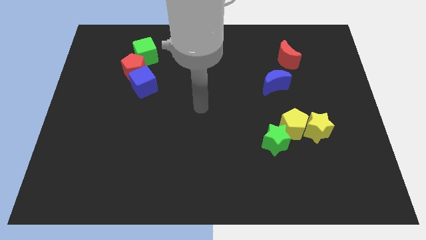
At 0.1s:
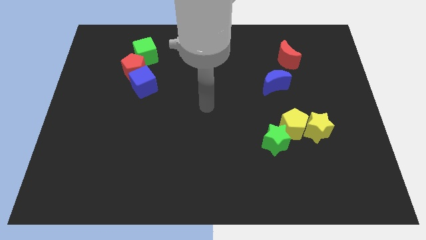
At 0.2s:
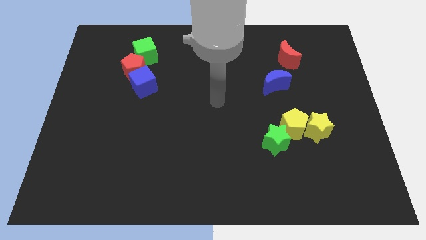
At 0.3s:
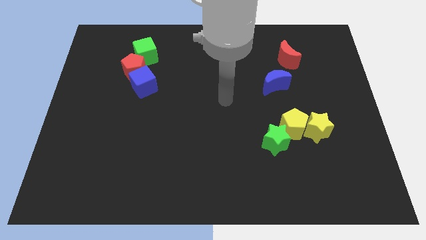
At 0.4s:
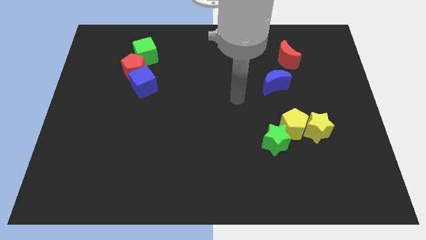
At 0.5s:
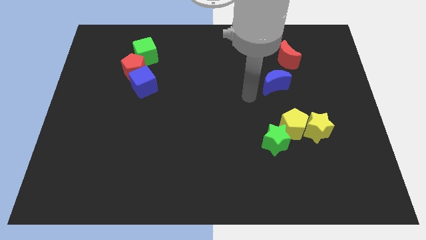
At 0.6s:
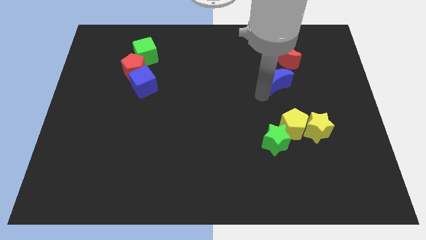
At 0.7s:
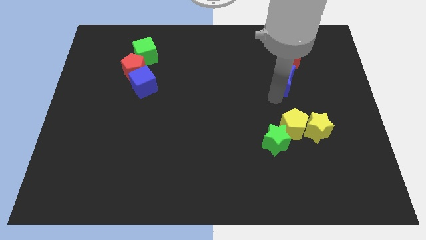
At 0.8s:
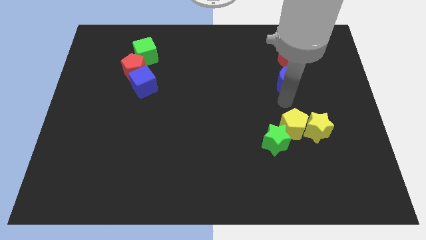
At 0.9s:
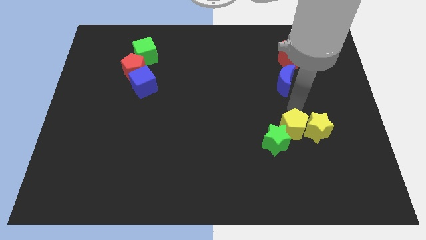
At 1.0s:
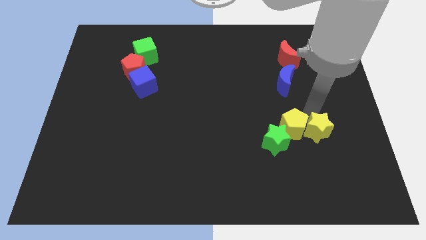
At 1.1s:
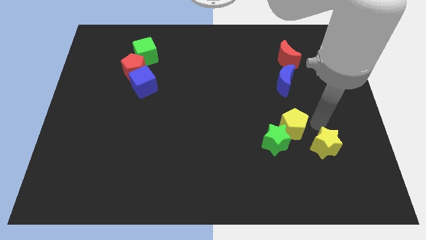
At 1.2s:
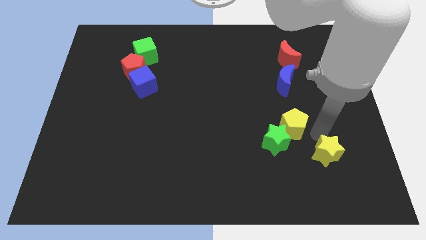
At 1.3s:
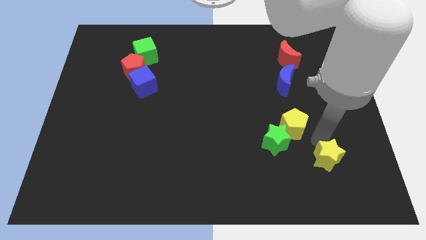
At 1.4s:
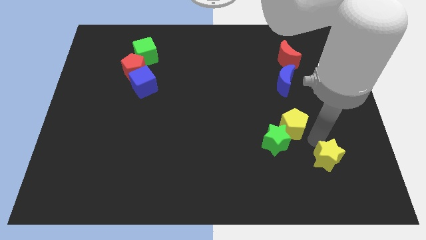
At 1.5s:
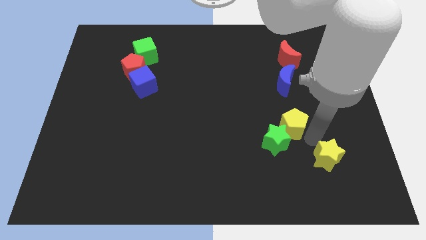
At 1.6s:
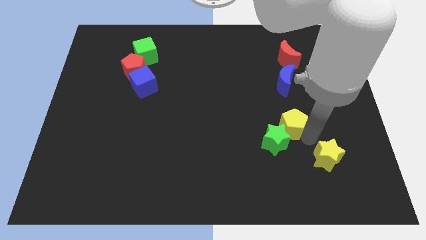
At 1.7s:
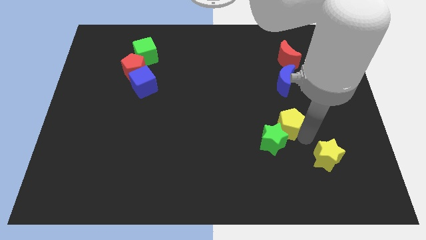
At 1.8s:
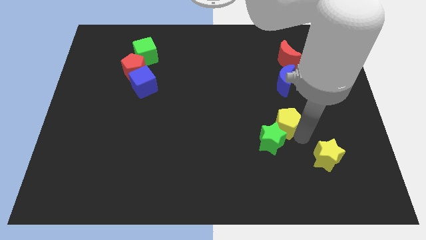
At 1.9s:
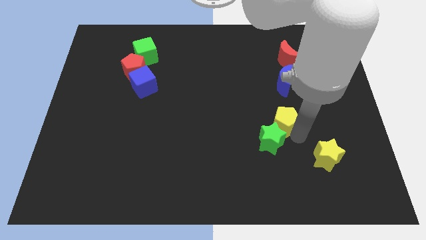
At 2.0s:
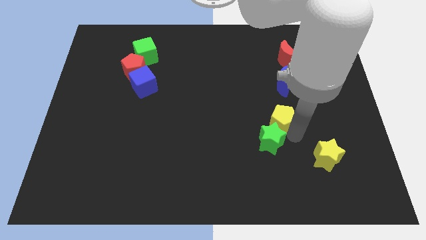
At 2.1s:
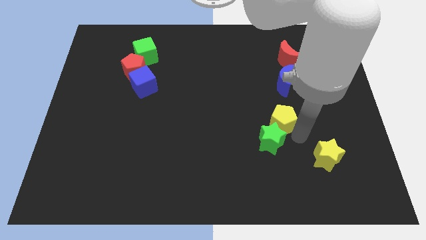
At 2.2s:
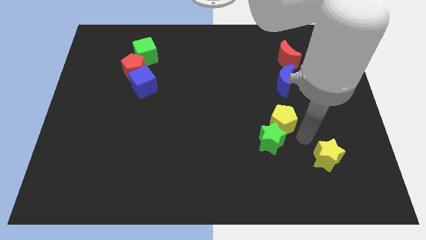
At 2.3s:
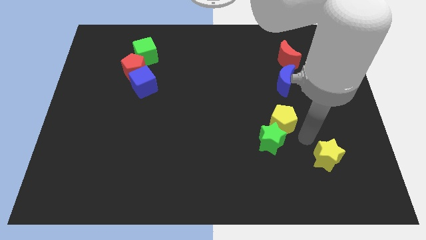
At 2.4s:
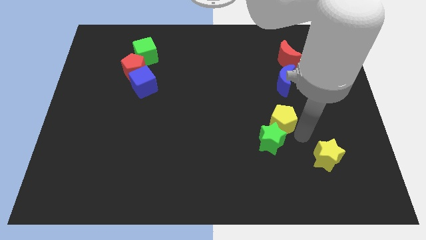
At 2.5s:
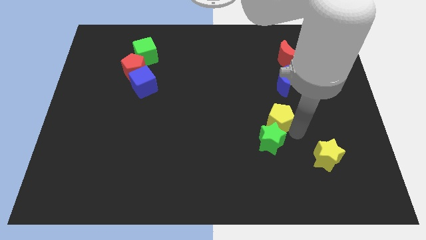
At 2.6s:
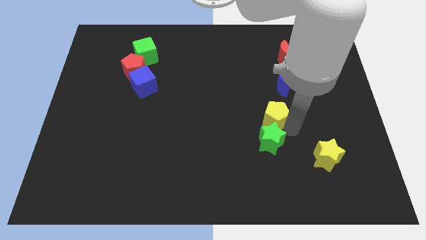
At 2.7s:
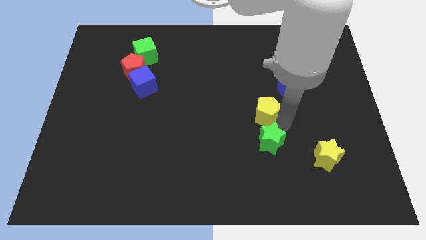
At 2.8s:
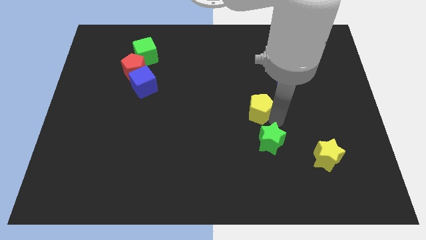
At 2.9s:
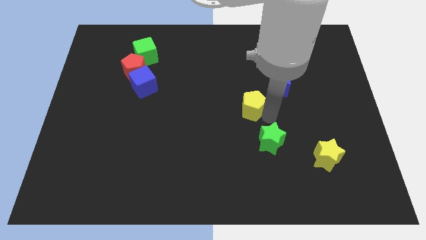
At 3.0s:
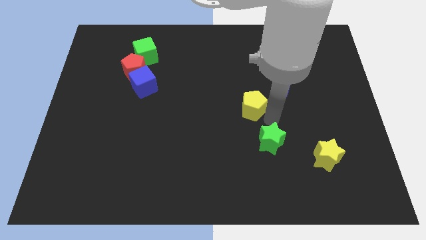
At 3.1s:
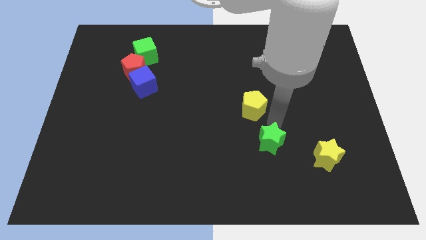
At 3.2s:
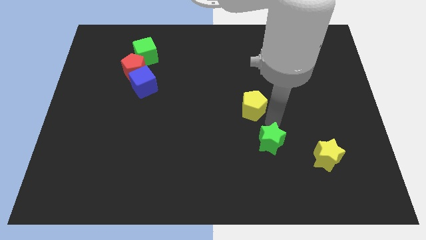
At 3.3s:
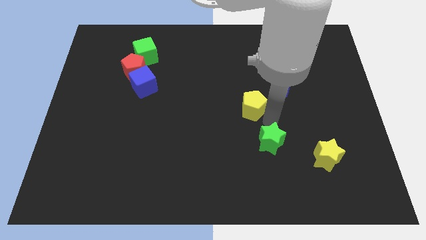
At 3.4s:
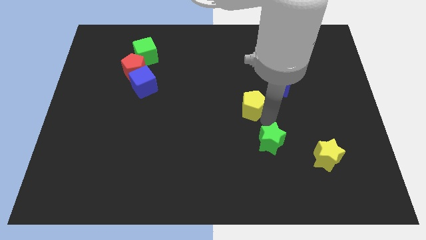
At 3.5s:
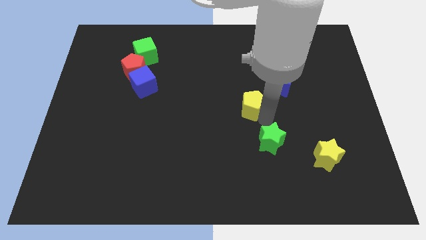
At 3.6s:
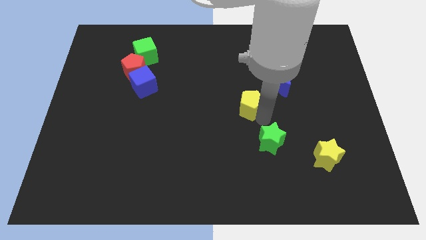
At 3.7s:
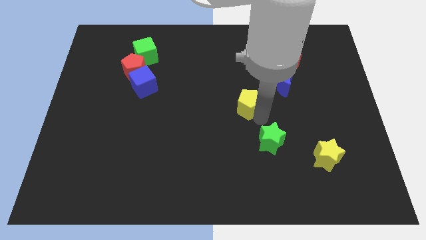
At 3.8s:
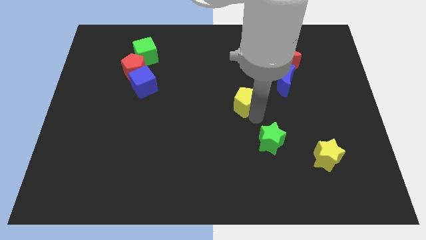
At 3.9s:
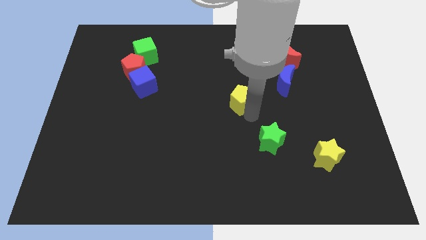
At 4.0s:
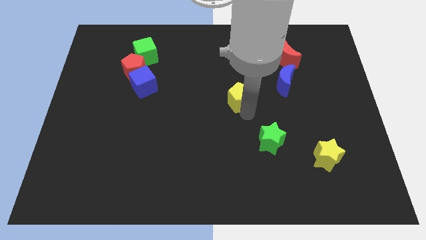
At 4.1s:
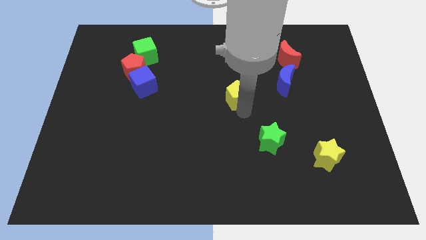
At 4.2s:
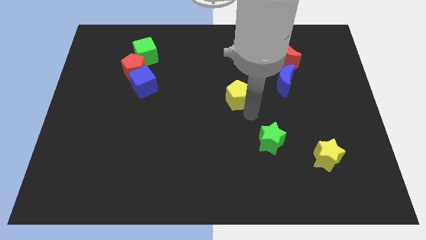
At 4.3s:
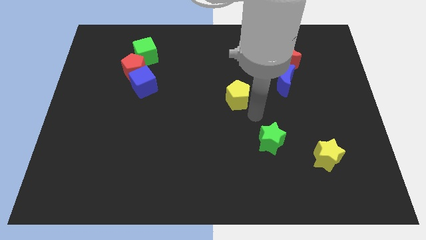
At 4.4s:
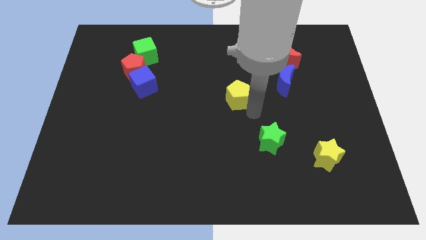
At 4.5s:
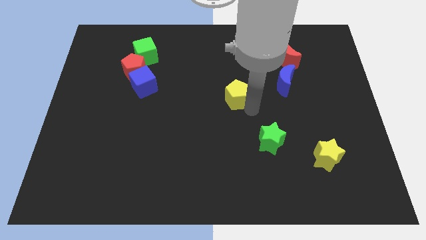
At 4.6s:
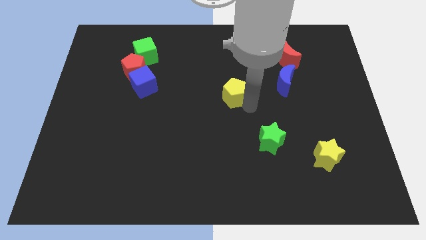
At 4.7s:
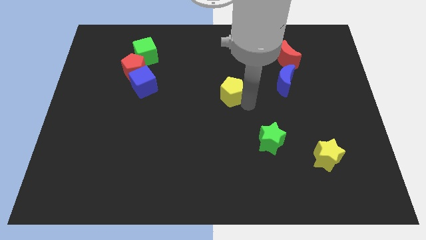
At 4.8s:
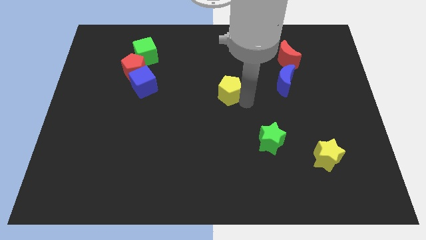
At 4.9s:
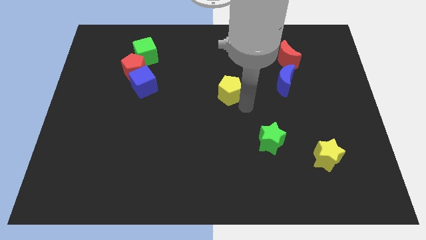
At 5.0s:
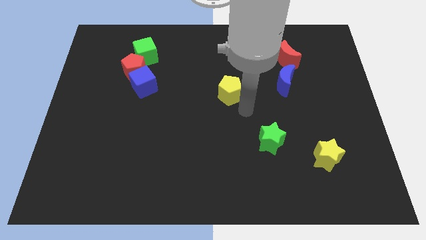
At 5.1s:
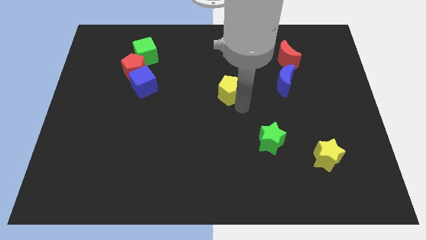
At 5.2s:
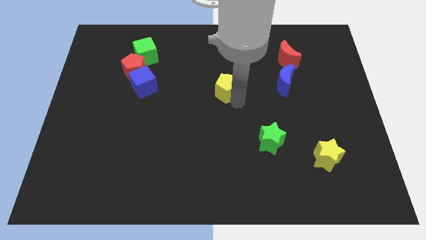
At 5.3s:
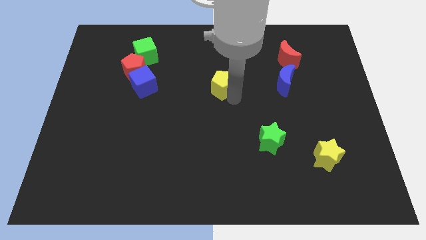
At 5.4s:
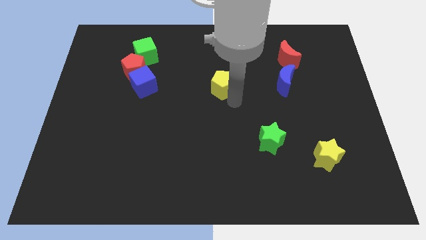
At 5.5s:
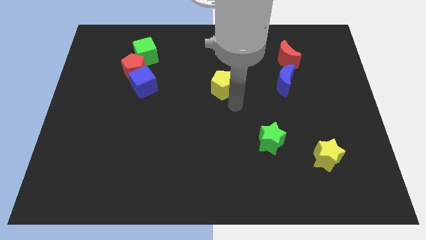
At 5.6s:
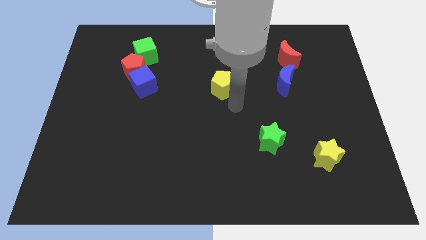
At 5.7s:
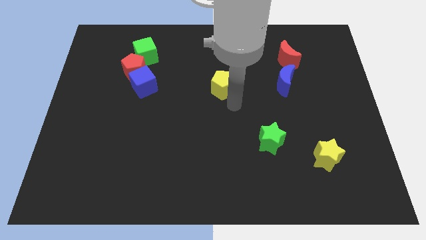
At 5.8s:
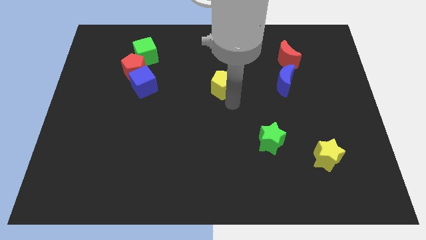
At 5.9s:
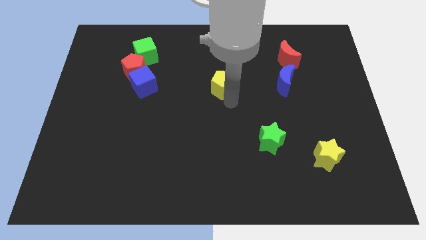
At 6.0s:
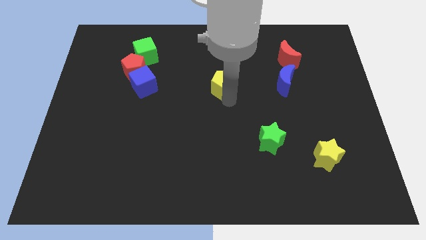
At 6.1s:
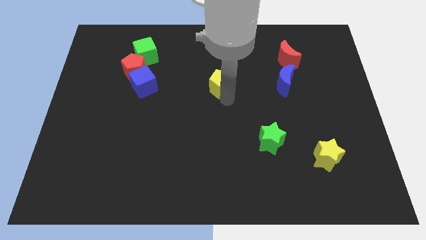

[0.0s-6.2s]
slide the yellow pentagon up and left diagonally

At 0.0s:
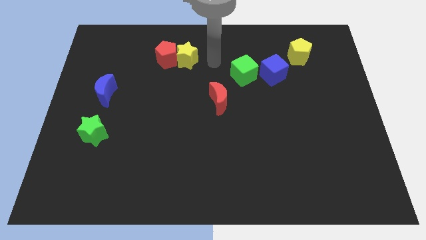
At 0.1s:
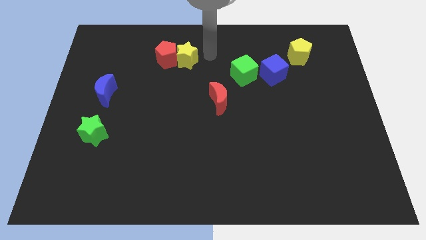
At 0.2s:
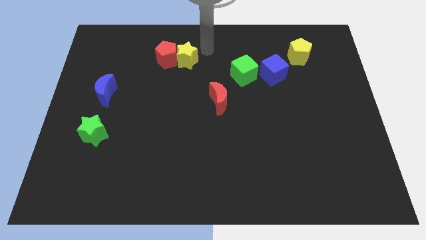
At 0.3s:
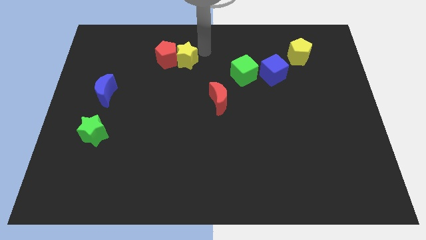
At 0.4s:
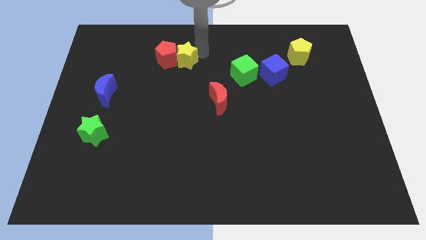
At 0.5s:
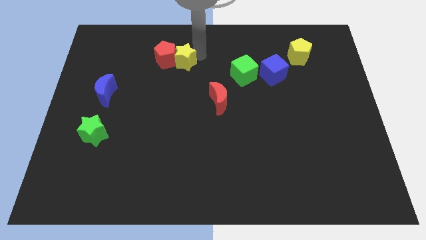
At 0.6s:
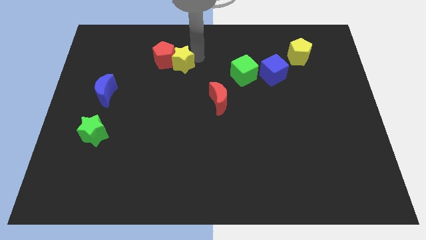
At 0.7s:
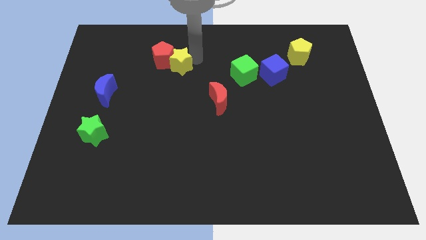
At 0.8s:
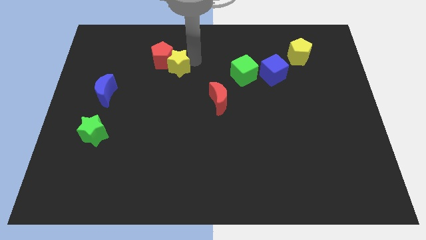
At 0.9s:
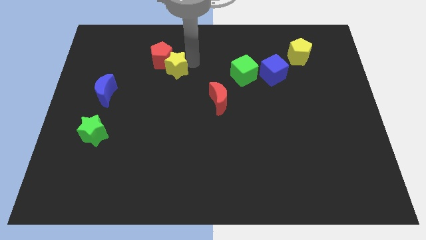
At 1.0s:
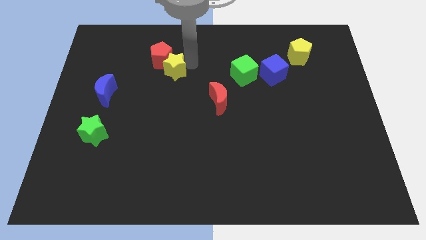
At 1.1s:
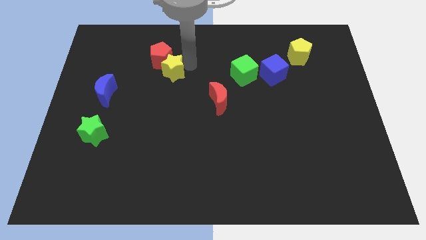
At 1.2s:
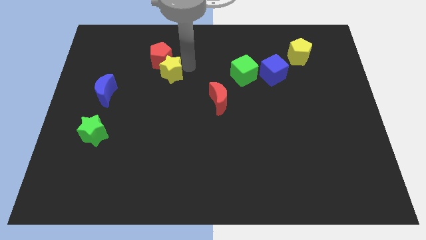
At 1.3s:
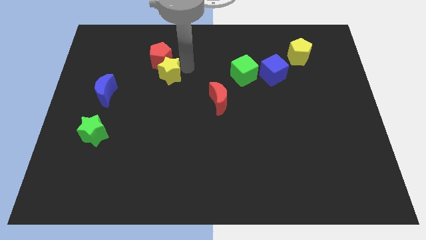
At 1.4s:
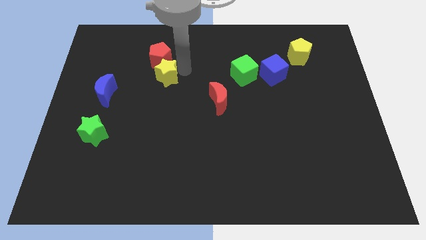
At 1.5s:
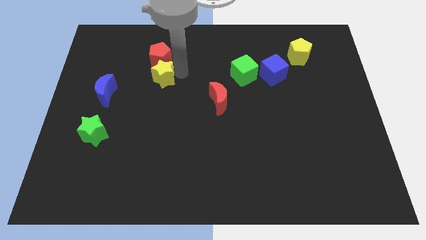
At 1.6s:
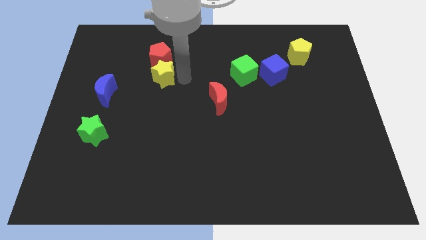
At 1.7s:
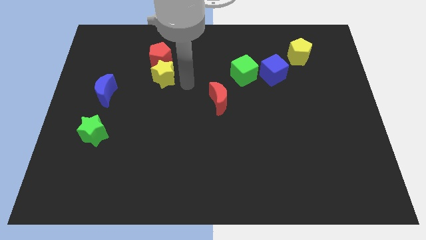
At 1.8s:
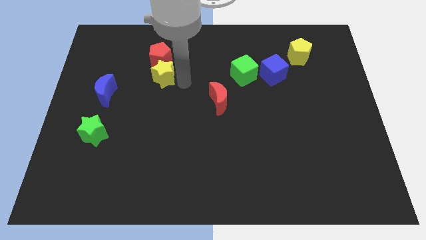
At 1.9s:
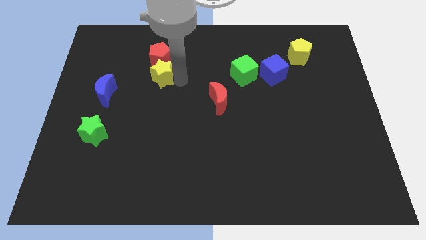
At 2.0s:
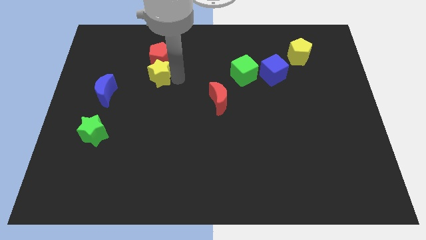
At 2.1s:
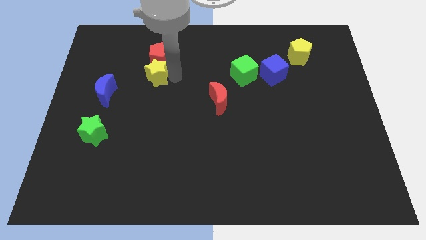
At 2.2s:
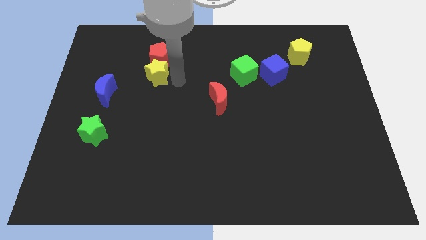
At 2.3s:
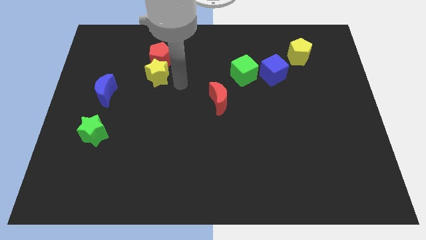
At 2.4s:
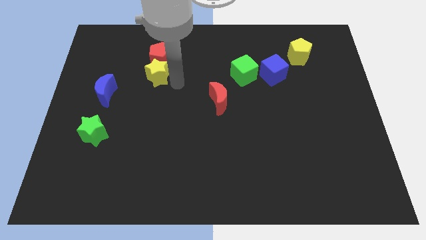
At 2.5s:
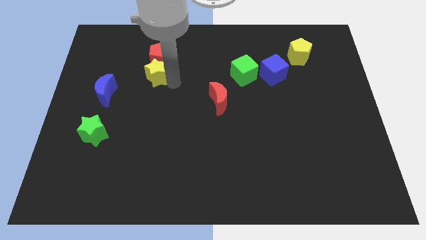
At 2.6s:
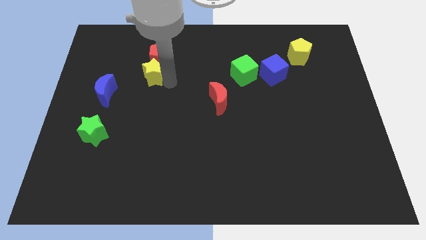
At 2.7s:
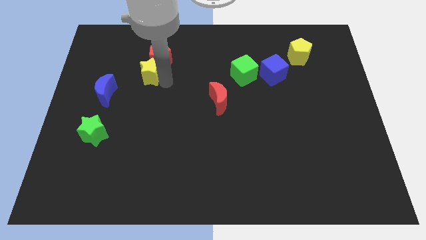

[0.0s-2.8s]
slide the yellow star to the left a little bit
